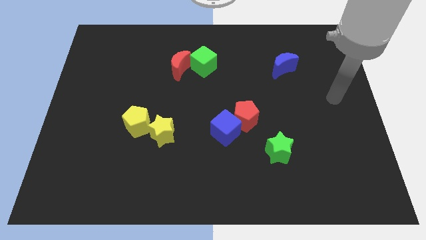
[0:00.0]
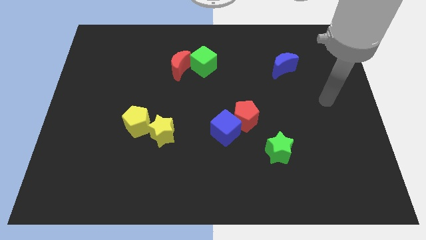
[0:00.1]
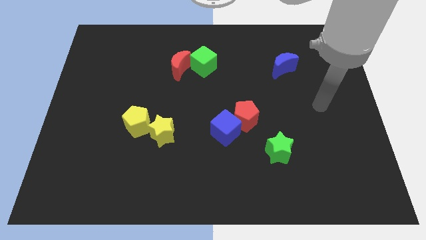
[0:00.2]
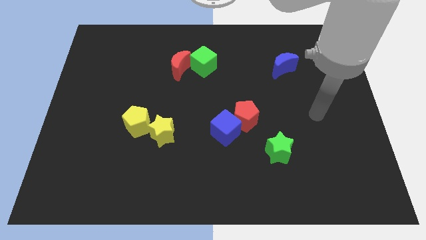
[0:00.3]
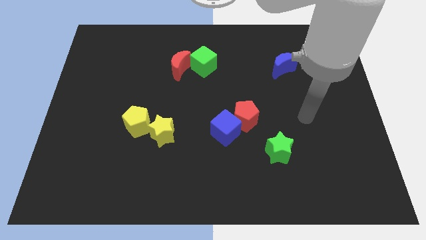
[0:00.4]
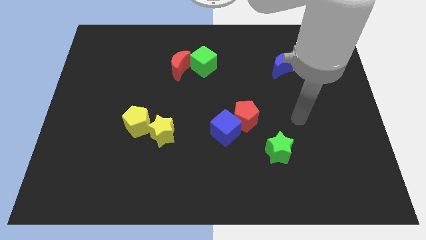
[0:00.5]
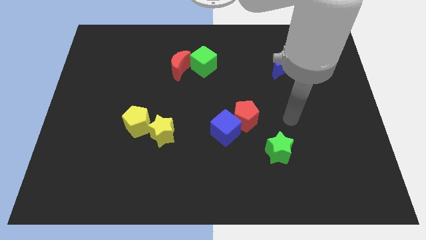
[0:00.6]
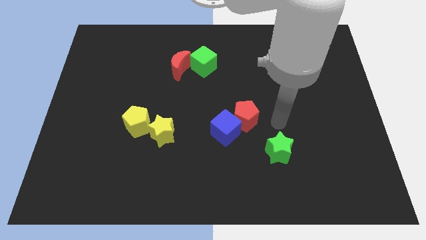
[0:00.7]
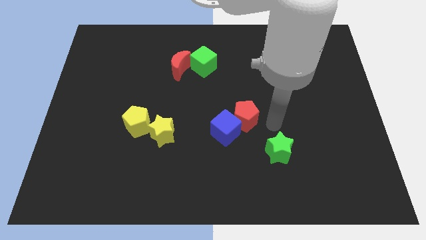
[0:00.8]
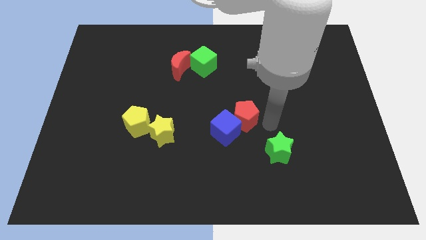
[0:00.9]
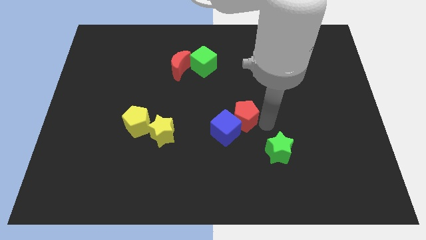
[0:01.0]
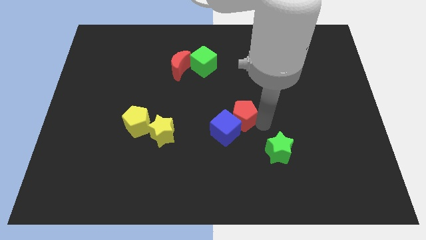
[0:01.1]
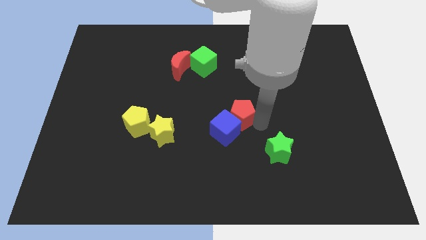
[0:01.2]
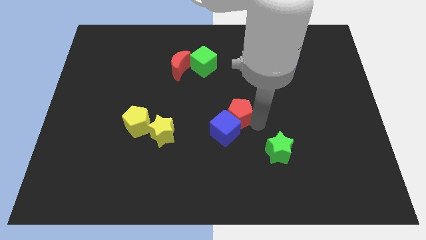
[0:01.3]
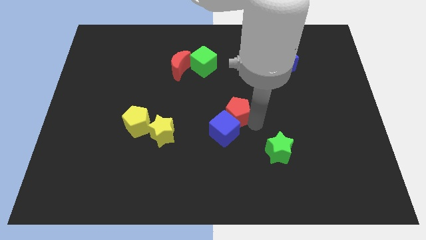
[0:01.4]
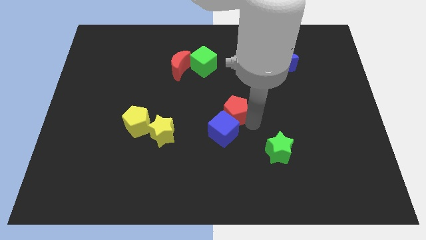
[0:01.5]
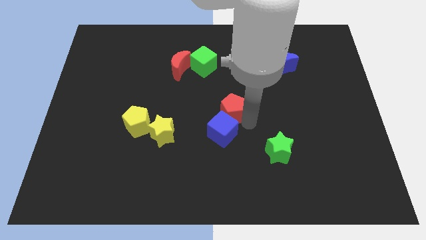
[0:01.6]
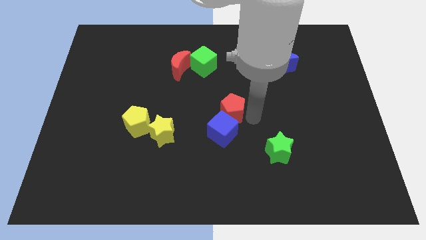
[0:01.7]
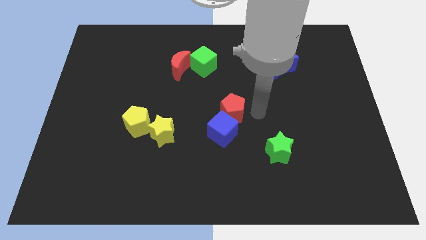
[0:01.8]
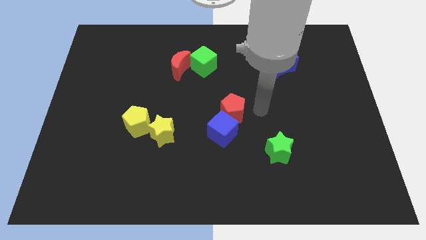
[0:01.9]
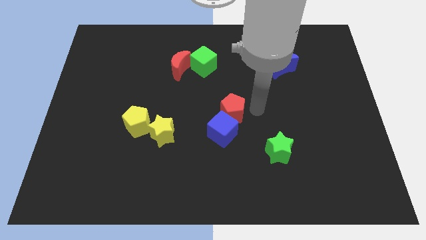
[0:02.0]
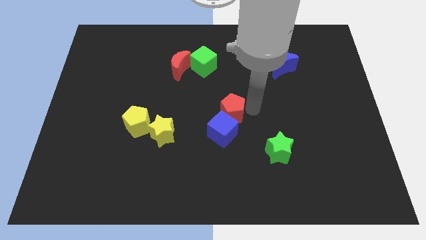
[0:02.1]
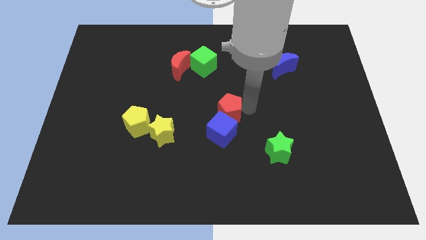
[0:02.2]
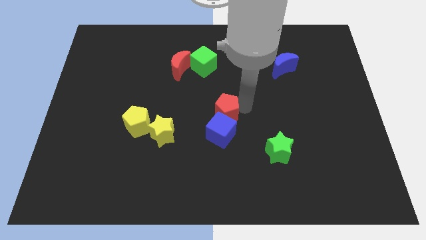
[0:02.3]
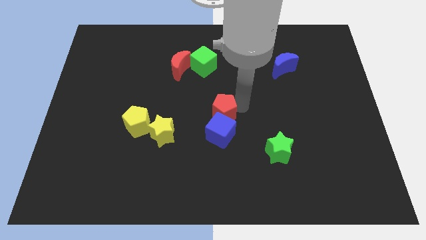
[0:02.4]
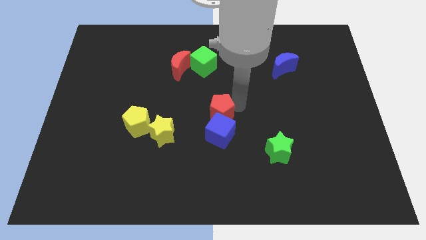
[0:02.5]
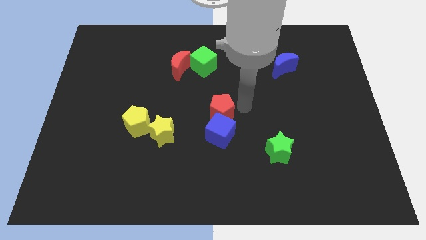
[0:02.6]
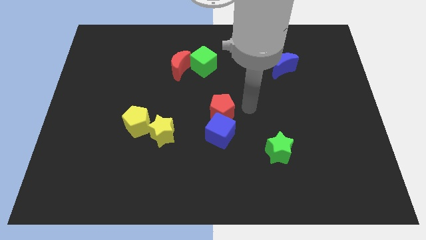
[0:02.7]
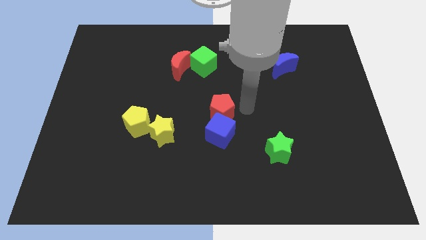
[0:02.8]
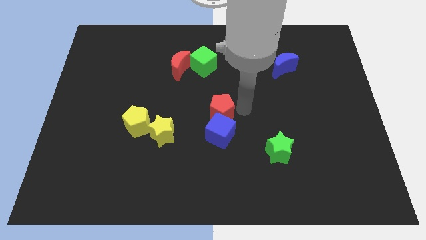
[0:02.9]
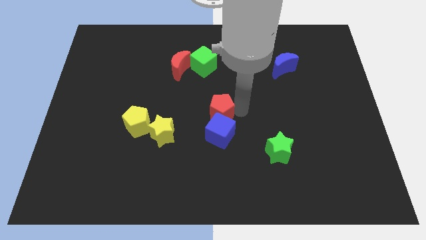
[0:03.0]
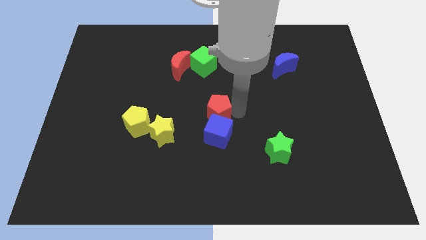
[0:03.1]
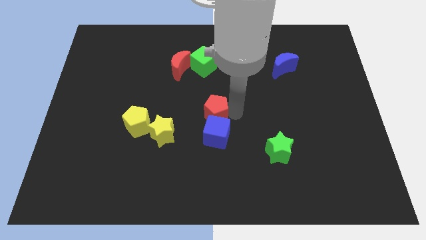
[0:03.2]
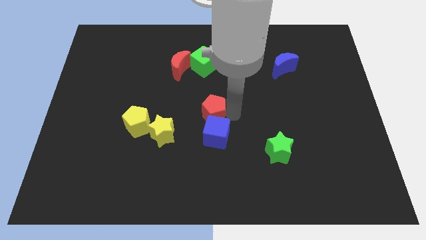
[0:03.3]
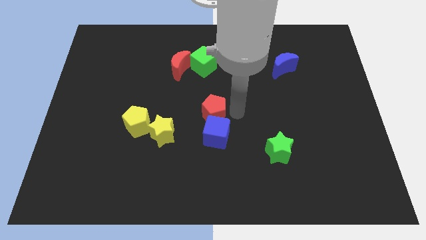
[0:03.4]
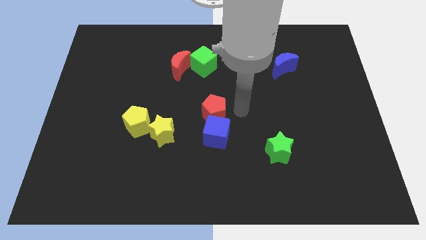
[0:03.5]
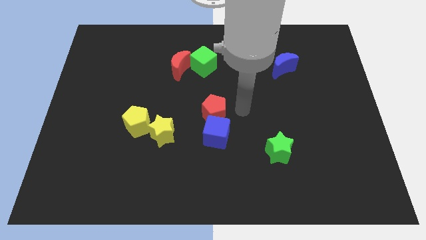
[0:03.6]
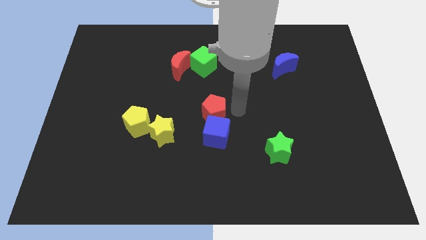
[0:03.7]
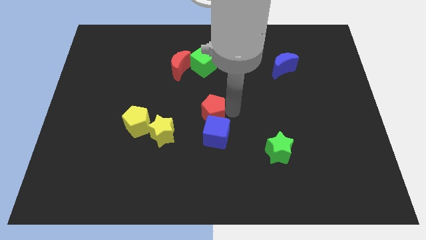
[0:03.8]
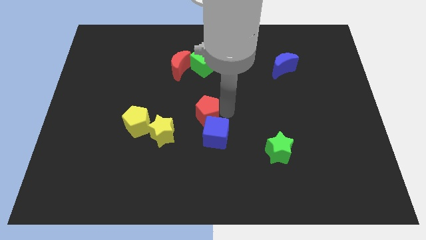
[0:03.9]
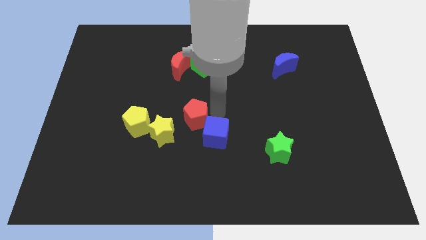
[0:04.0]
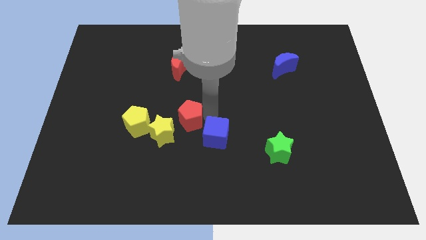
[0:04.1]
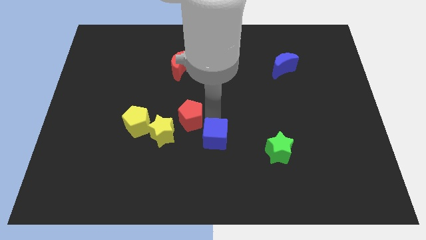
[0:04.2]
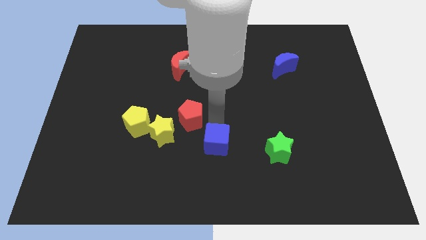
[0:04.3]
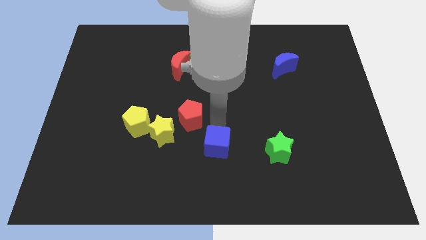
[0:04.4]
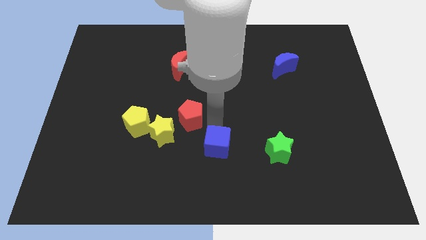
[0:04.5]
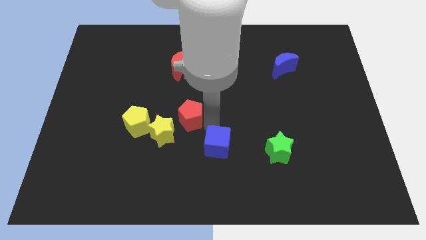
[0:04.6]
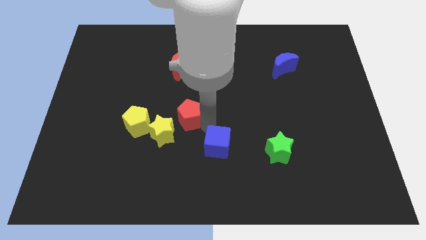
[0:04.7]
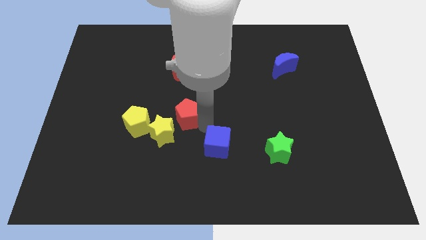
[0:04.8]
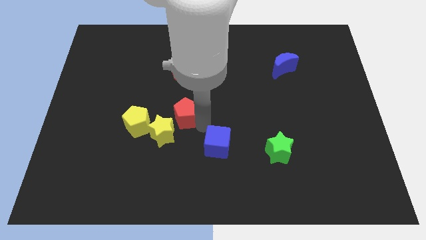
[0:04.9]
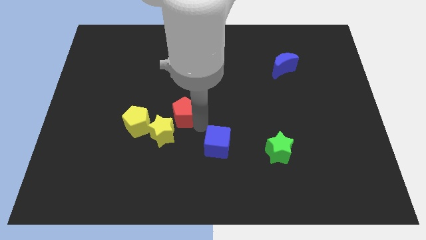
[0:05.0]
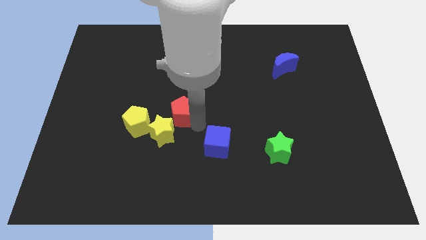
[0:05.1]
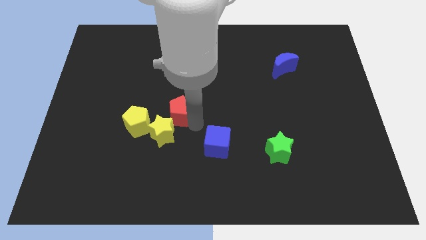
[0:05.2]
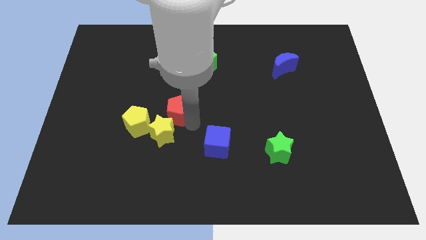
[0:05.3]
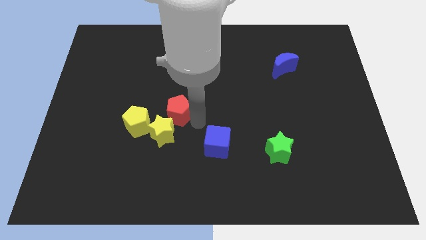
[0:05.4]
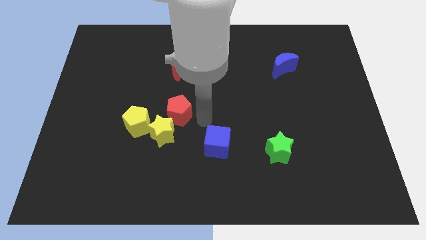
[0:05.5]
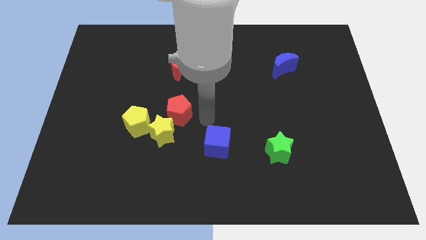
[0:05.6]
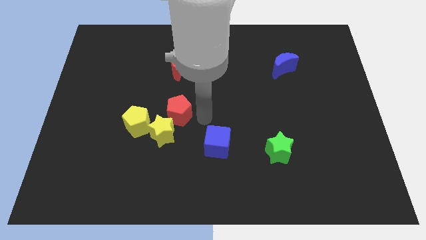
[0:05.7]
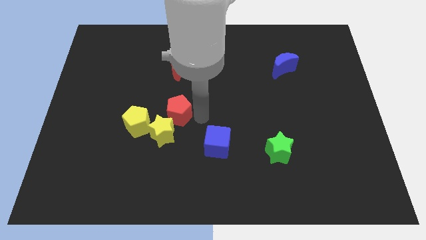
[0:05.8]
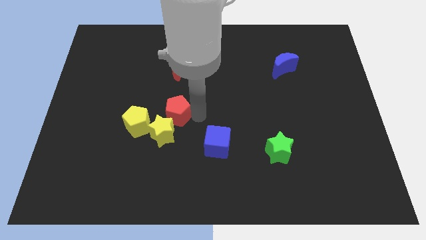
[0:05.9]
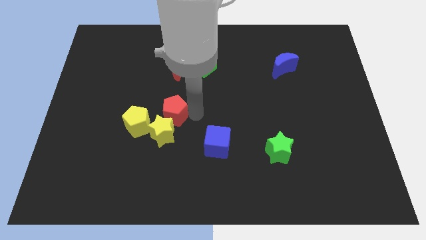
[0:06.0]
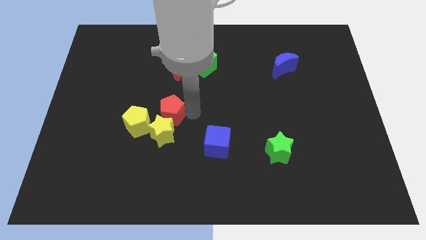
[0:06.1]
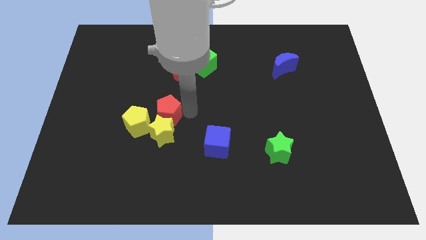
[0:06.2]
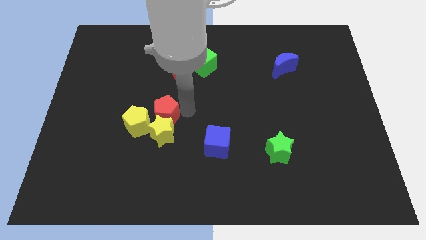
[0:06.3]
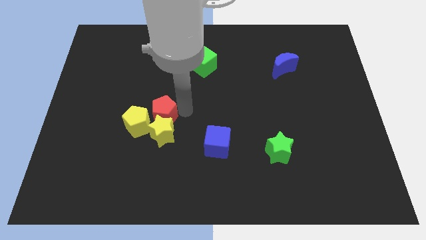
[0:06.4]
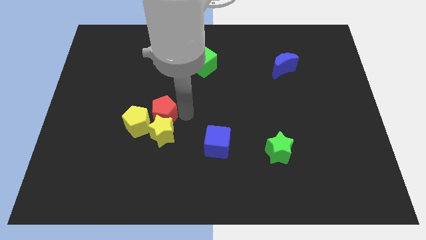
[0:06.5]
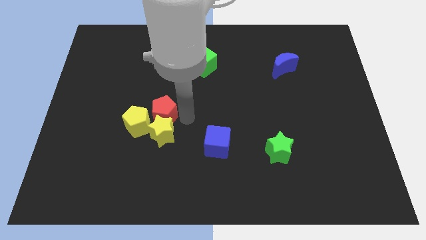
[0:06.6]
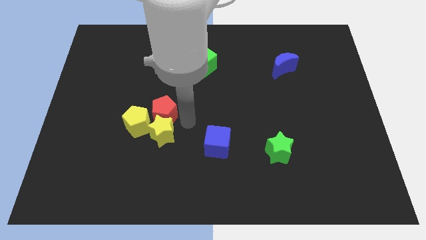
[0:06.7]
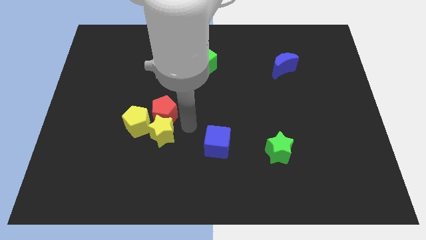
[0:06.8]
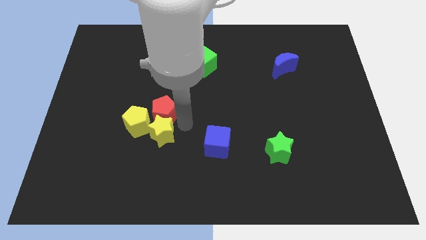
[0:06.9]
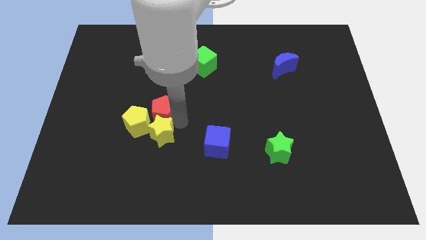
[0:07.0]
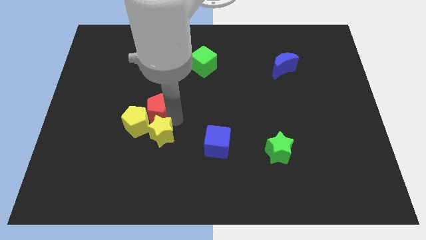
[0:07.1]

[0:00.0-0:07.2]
slide the red pentagon left

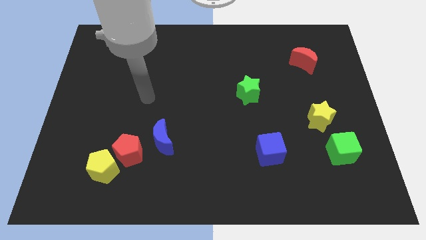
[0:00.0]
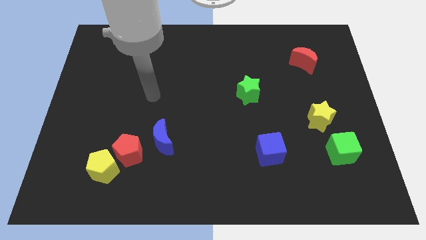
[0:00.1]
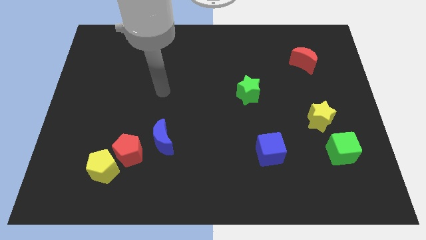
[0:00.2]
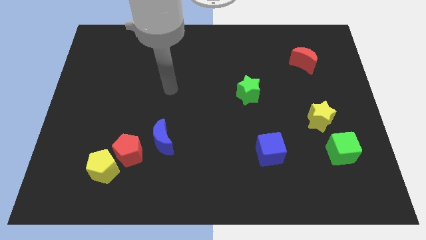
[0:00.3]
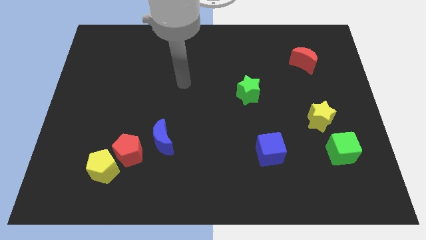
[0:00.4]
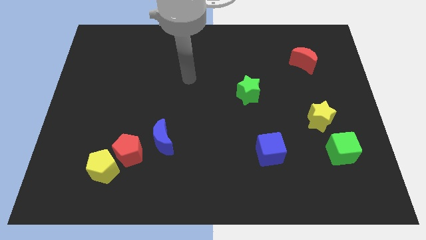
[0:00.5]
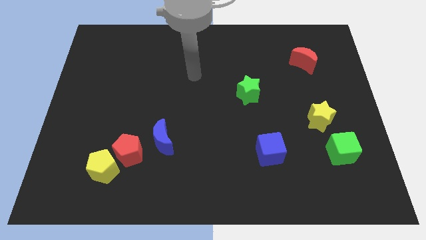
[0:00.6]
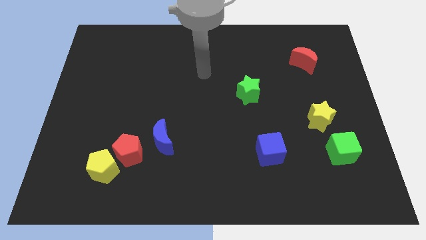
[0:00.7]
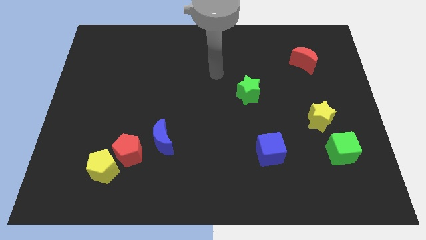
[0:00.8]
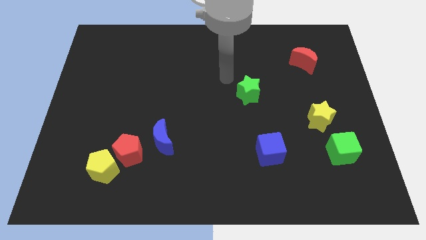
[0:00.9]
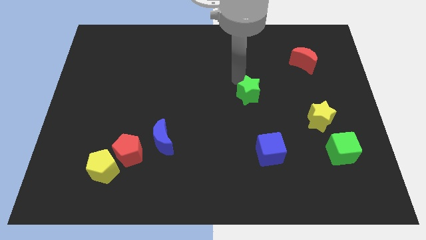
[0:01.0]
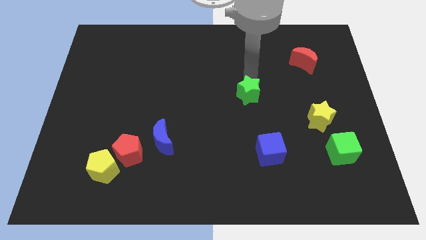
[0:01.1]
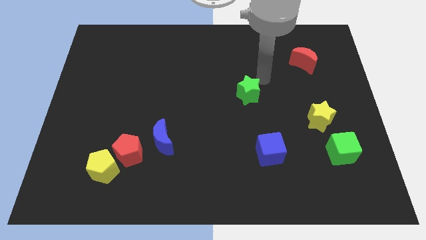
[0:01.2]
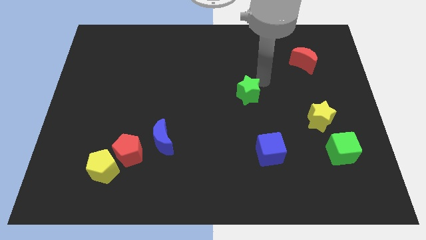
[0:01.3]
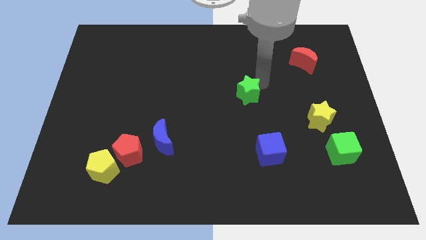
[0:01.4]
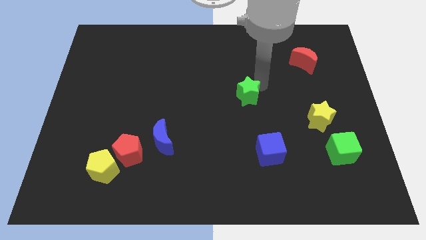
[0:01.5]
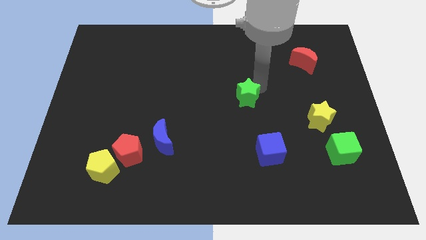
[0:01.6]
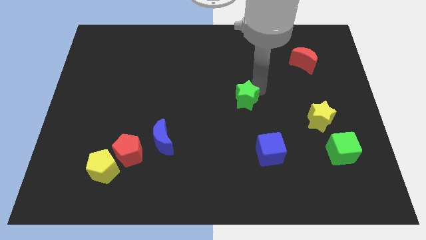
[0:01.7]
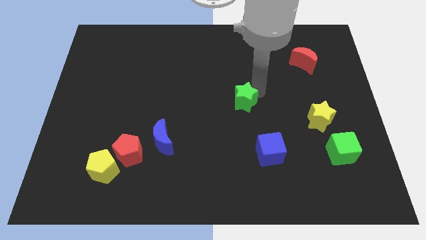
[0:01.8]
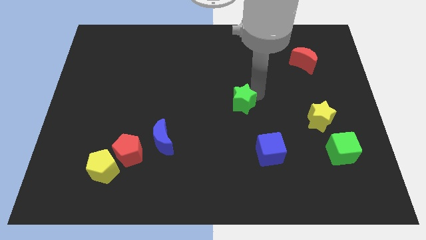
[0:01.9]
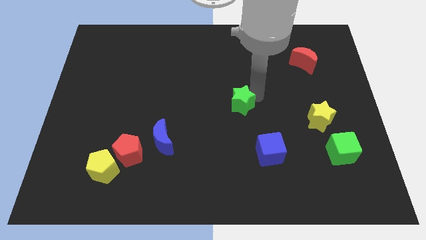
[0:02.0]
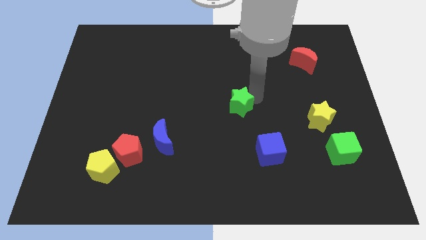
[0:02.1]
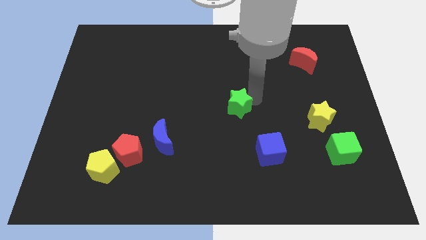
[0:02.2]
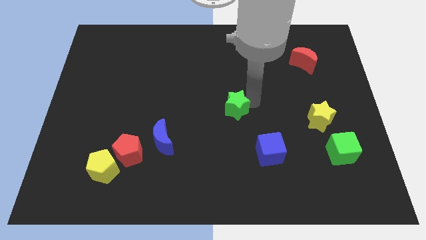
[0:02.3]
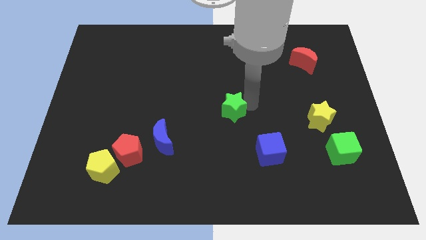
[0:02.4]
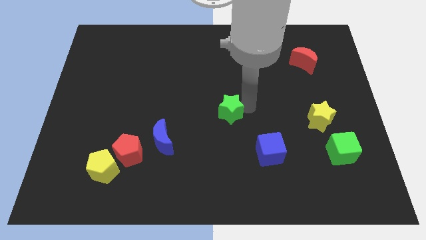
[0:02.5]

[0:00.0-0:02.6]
slightly slide the green star diagonally downwards and to the left
